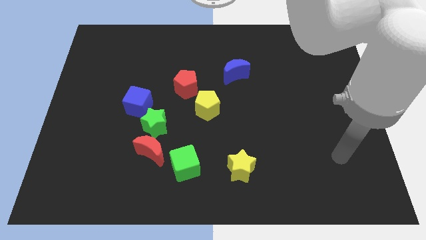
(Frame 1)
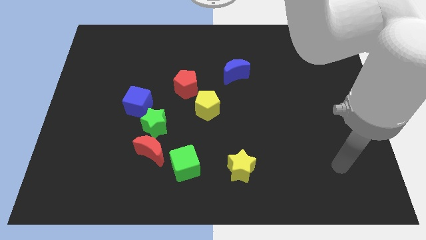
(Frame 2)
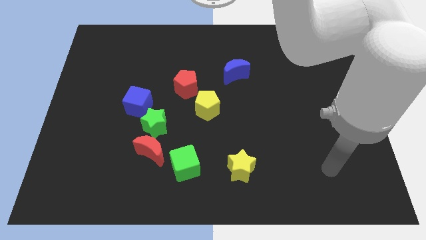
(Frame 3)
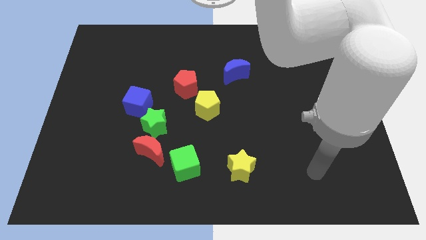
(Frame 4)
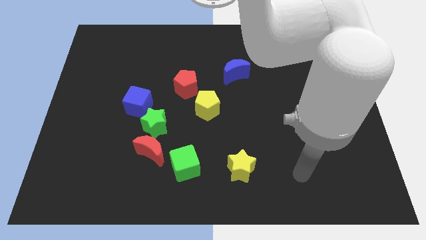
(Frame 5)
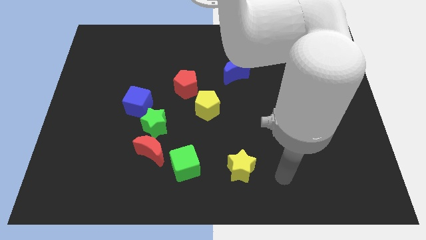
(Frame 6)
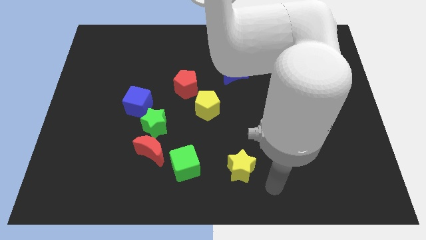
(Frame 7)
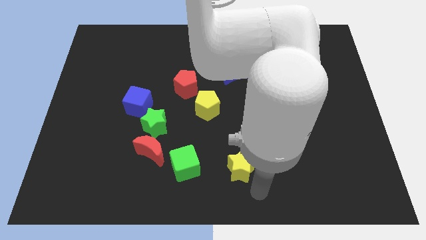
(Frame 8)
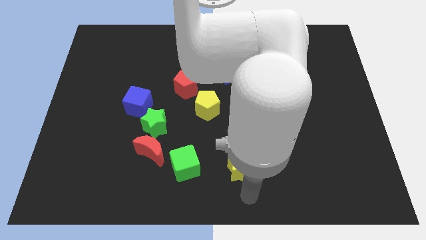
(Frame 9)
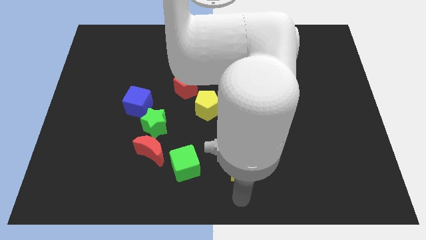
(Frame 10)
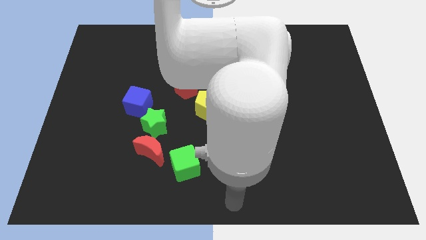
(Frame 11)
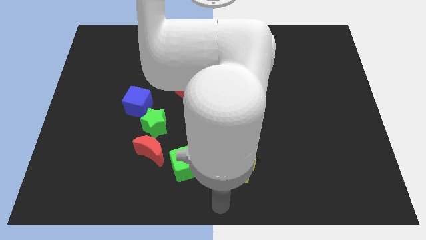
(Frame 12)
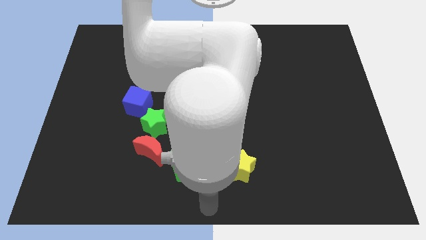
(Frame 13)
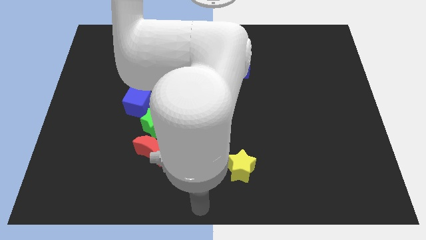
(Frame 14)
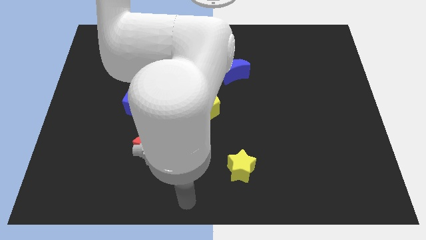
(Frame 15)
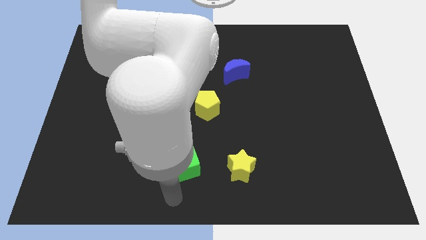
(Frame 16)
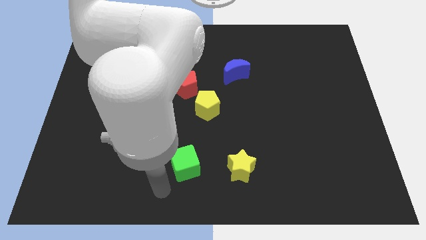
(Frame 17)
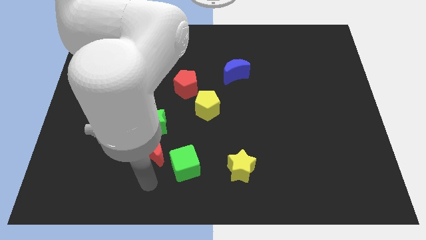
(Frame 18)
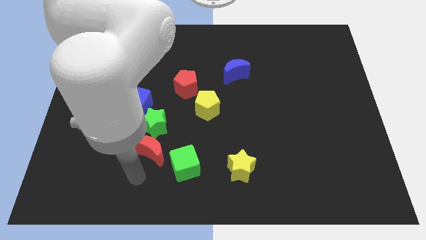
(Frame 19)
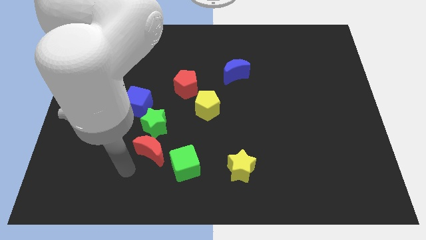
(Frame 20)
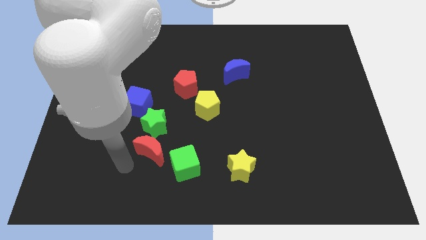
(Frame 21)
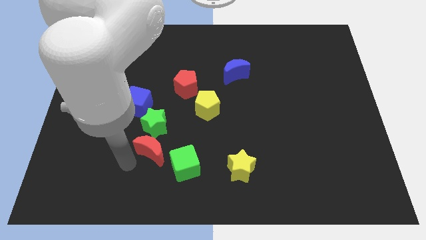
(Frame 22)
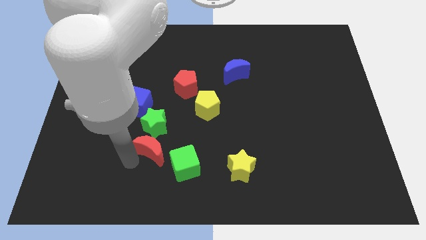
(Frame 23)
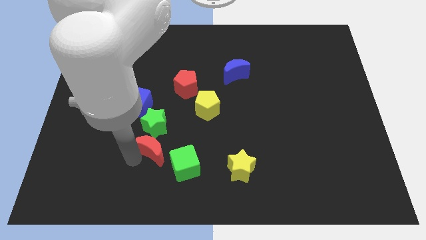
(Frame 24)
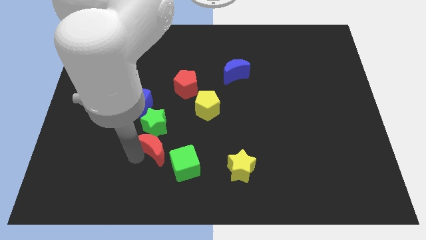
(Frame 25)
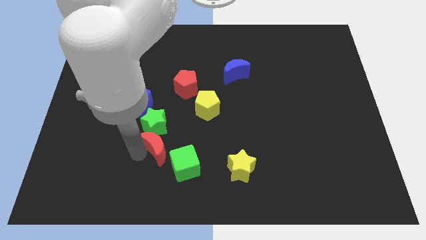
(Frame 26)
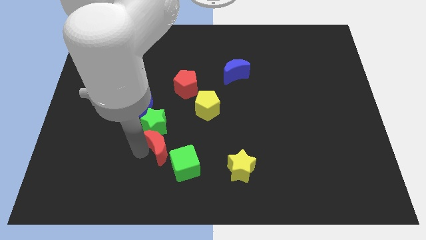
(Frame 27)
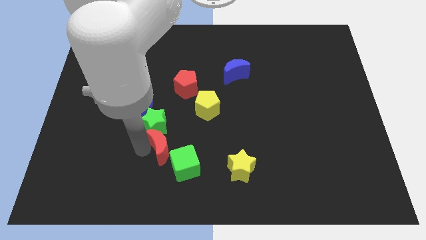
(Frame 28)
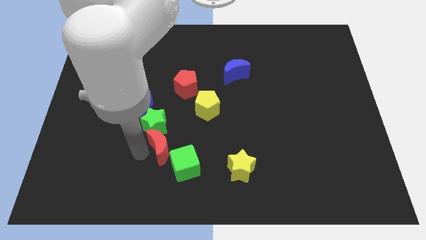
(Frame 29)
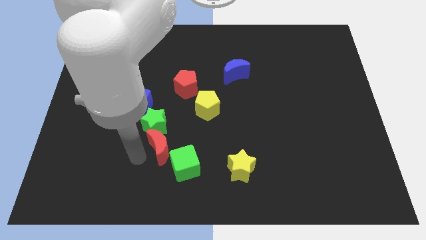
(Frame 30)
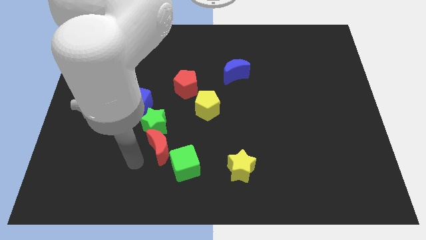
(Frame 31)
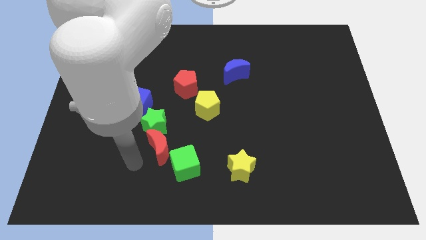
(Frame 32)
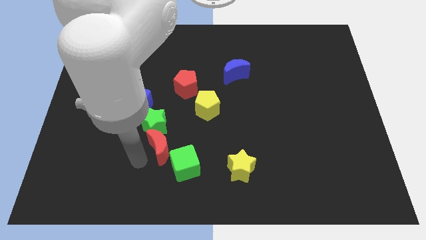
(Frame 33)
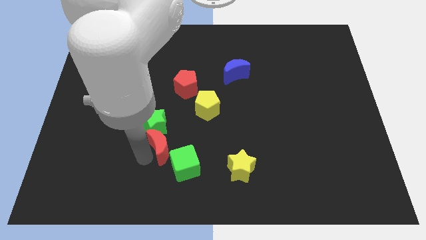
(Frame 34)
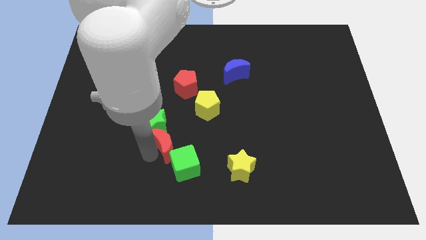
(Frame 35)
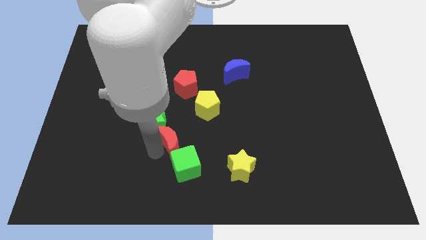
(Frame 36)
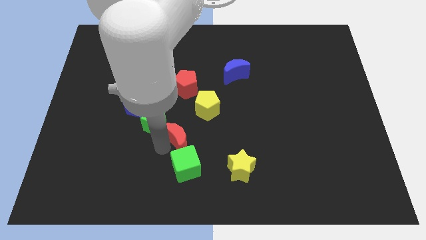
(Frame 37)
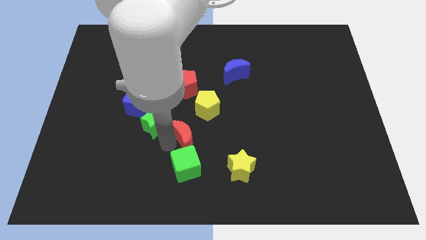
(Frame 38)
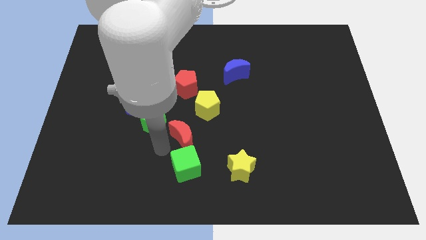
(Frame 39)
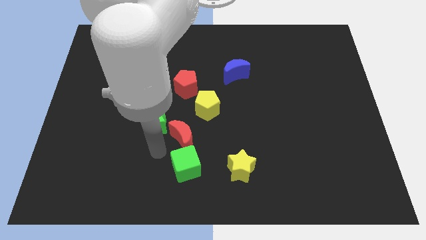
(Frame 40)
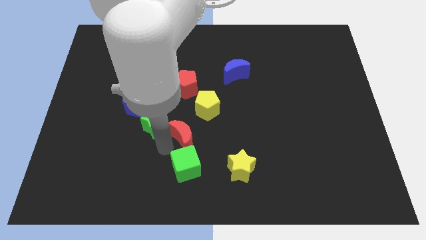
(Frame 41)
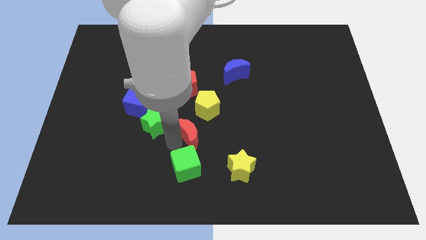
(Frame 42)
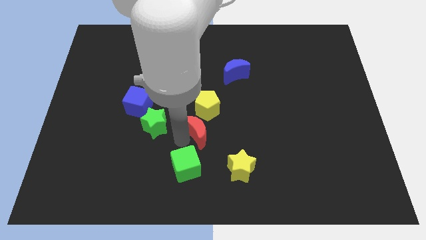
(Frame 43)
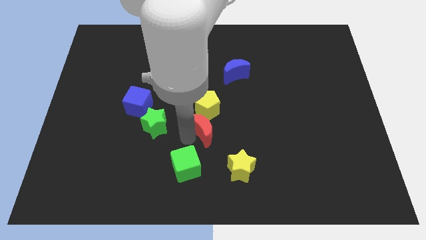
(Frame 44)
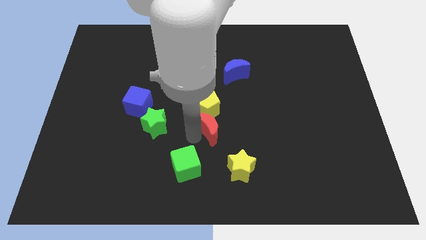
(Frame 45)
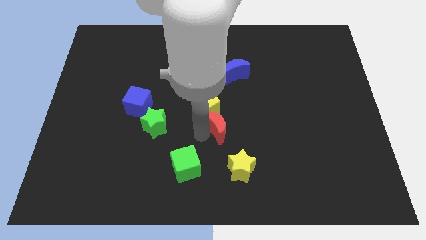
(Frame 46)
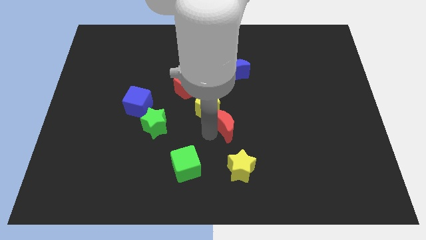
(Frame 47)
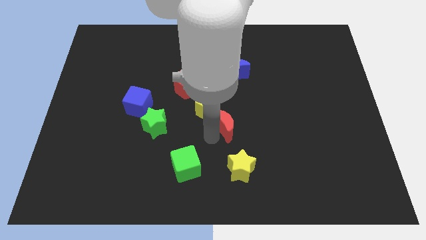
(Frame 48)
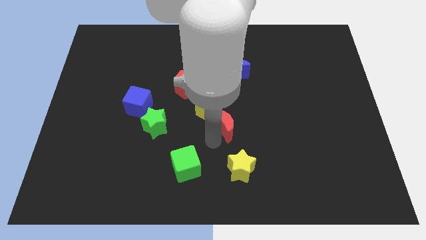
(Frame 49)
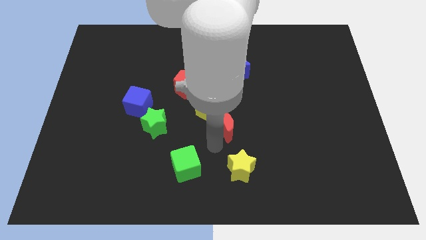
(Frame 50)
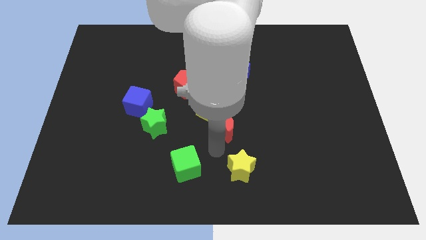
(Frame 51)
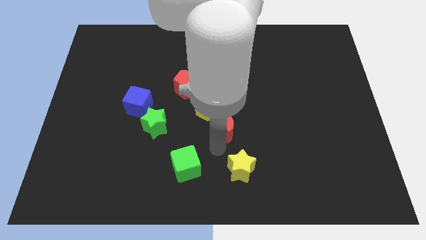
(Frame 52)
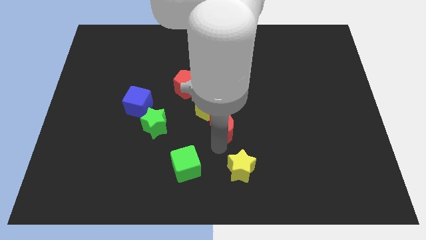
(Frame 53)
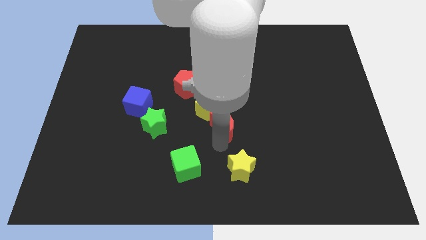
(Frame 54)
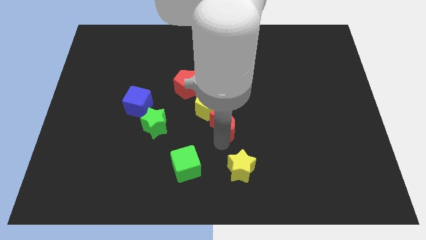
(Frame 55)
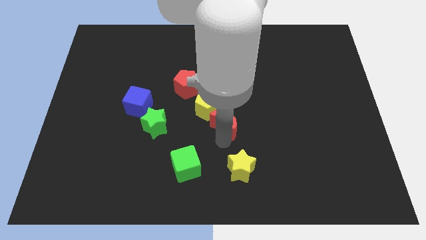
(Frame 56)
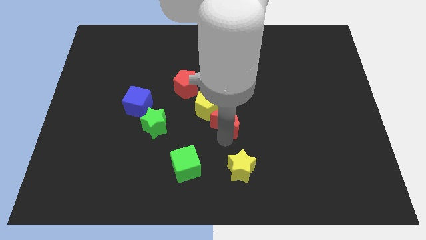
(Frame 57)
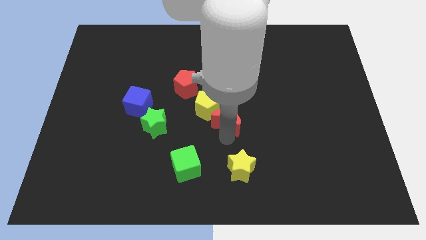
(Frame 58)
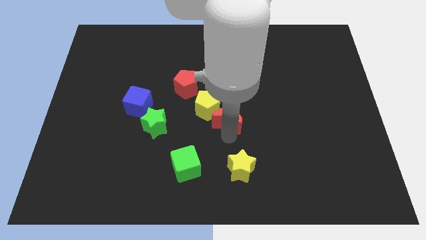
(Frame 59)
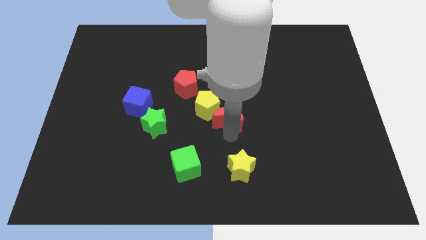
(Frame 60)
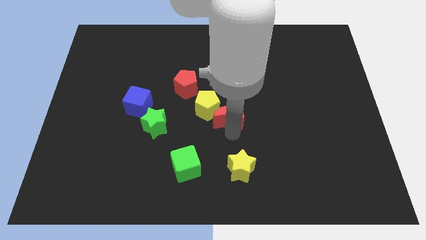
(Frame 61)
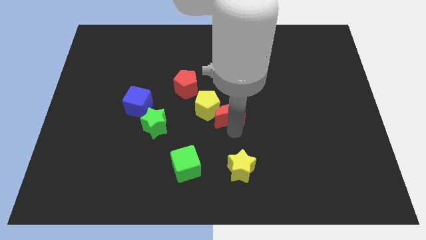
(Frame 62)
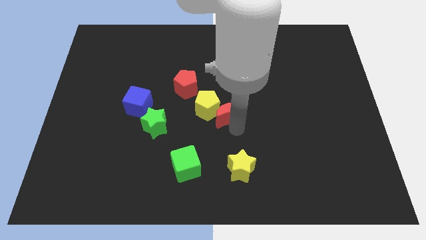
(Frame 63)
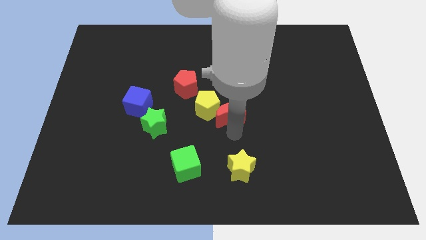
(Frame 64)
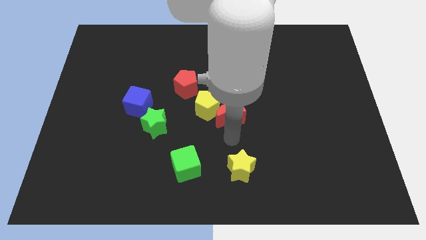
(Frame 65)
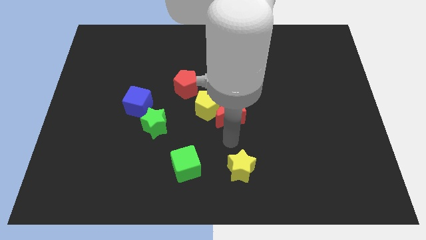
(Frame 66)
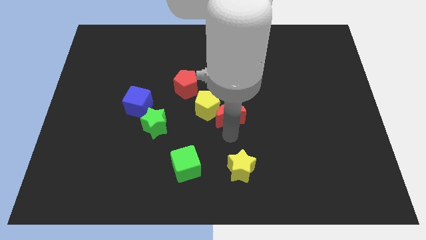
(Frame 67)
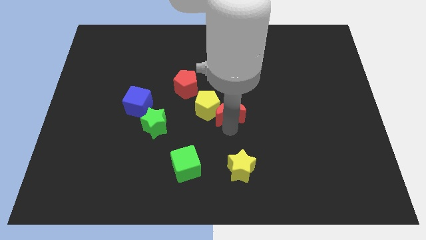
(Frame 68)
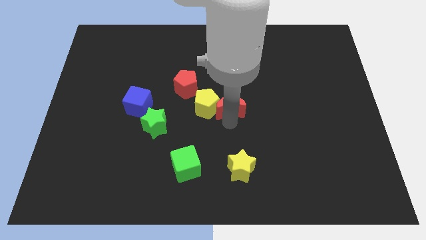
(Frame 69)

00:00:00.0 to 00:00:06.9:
move the red moon diagonally up and to the right of the yellow pentagon

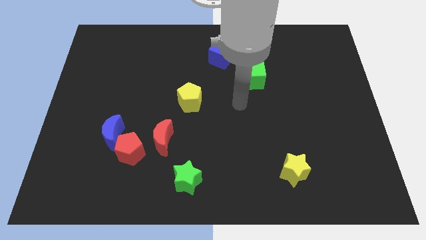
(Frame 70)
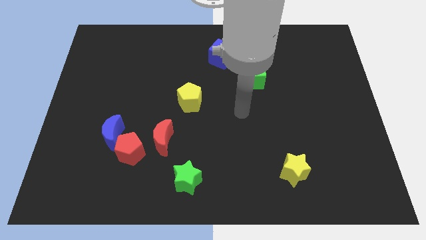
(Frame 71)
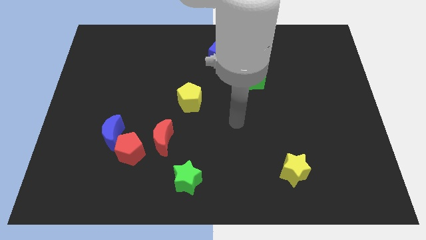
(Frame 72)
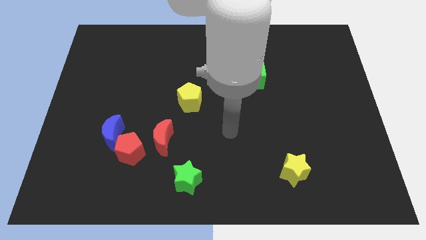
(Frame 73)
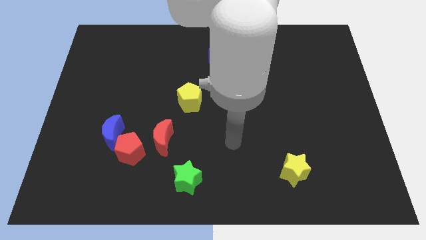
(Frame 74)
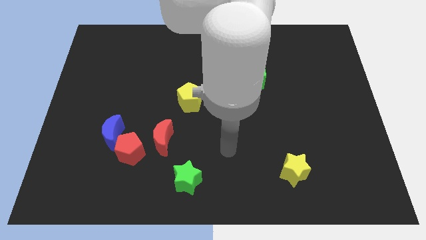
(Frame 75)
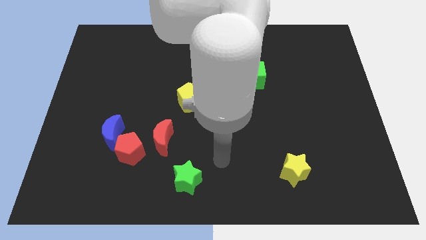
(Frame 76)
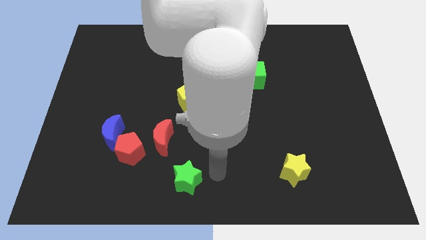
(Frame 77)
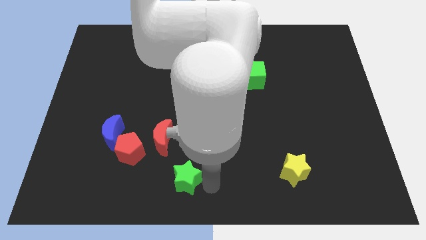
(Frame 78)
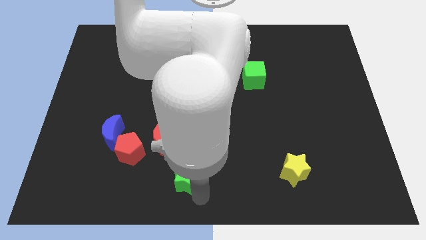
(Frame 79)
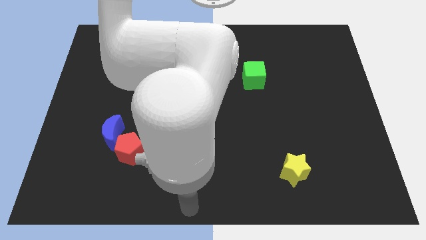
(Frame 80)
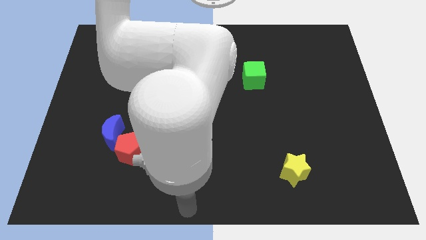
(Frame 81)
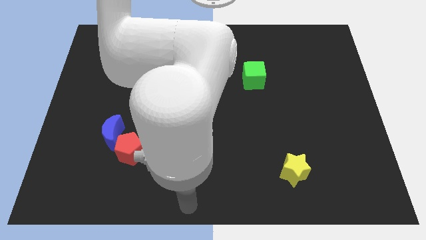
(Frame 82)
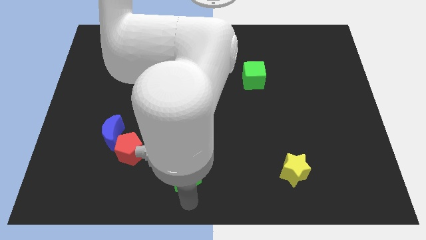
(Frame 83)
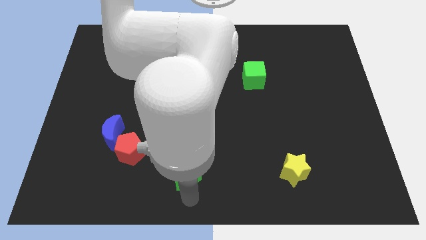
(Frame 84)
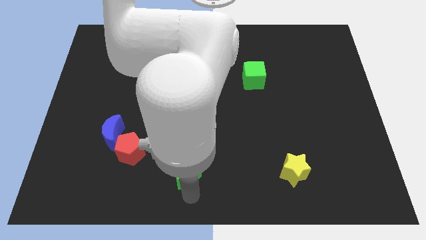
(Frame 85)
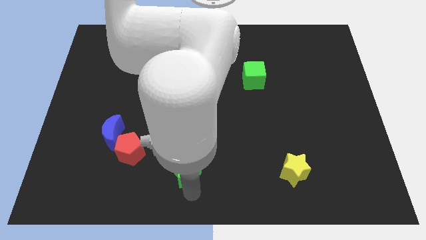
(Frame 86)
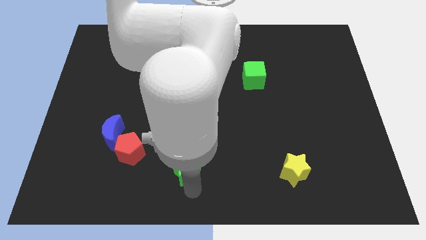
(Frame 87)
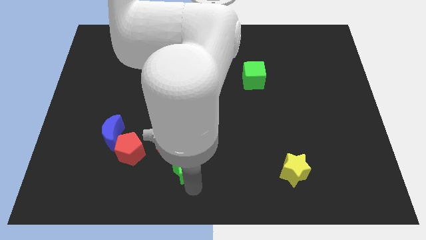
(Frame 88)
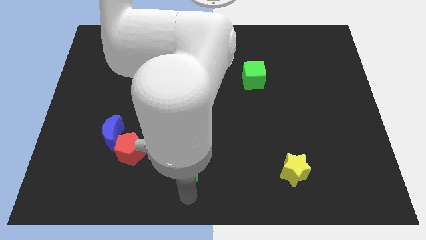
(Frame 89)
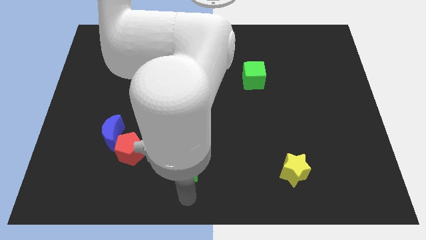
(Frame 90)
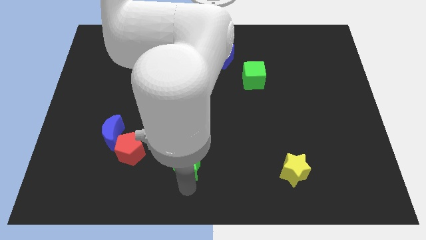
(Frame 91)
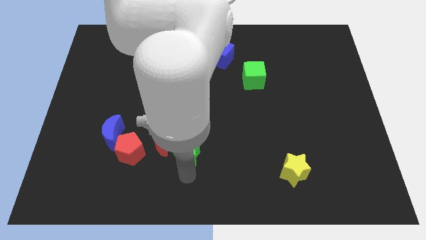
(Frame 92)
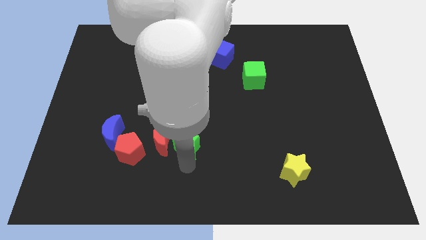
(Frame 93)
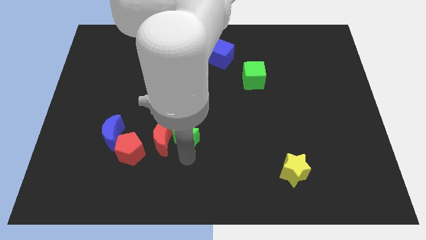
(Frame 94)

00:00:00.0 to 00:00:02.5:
slide the green star diagonally up and to the right of the red moon
